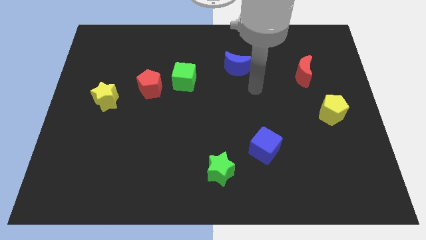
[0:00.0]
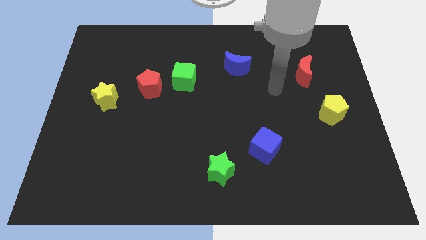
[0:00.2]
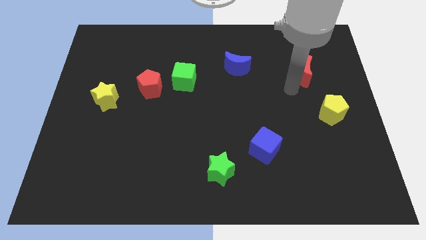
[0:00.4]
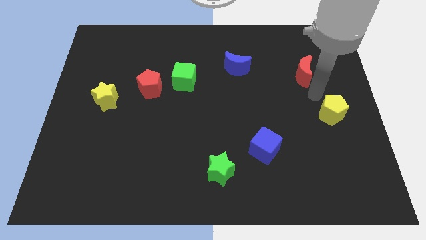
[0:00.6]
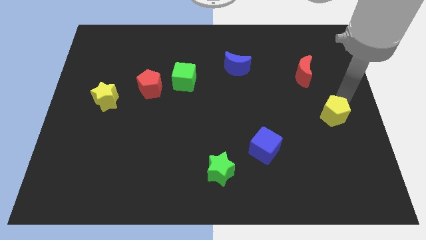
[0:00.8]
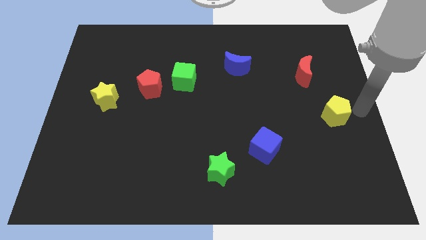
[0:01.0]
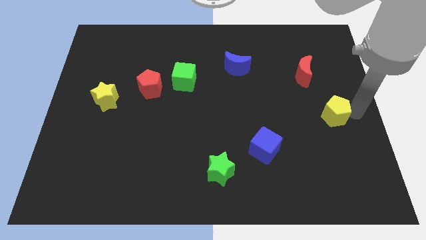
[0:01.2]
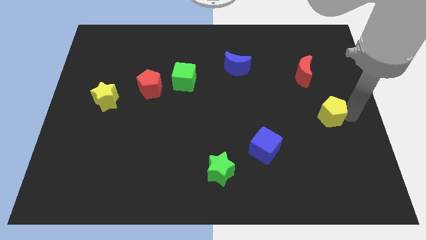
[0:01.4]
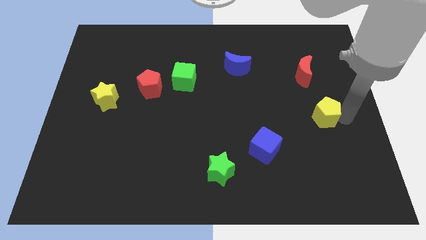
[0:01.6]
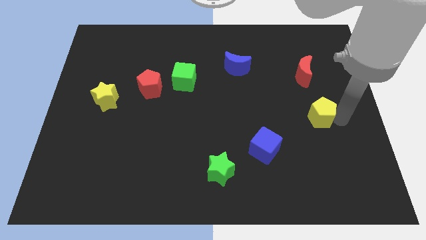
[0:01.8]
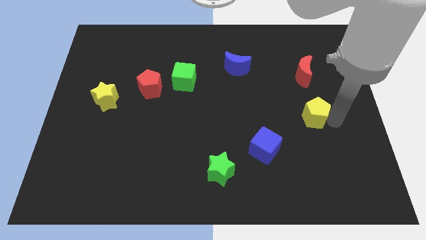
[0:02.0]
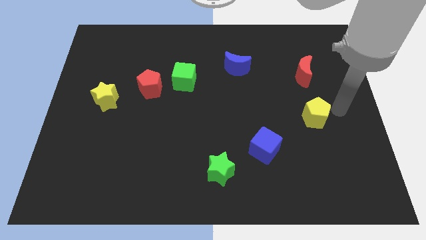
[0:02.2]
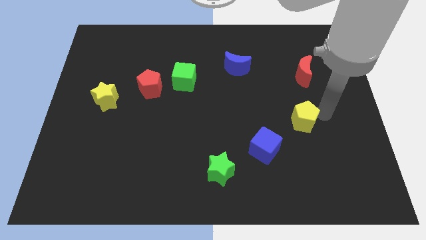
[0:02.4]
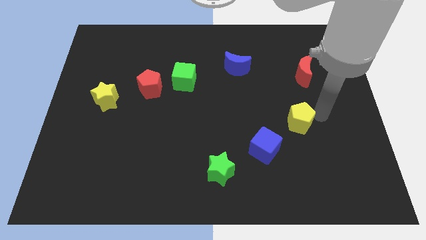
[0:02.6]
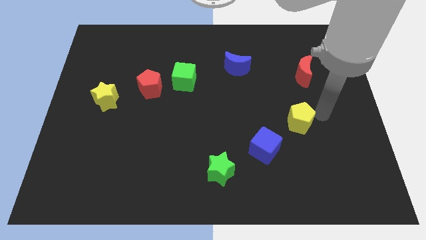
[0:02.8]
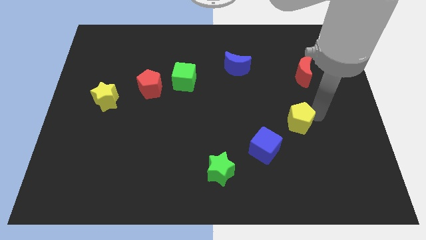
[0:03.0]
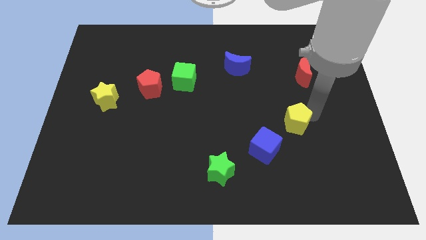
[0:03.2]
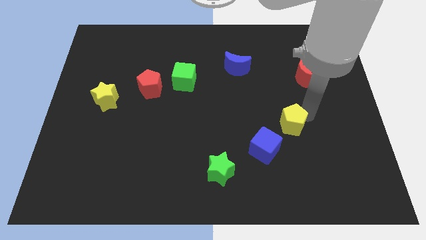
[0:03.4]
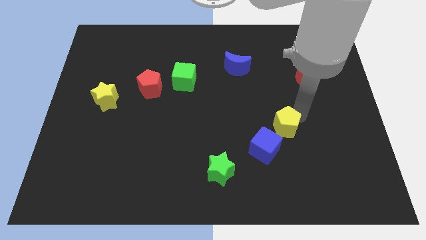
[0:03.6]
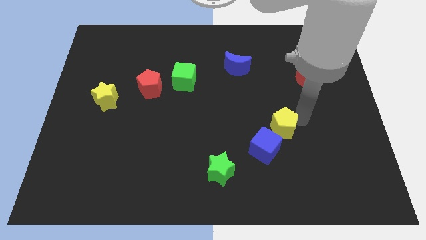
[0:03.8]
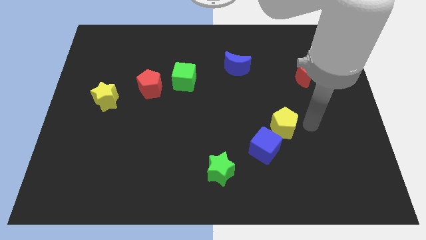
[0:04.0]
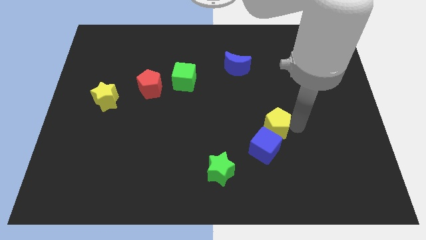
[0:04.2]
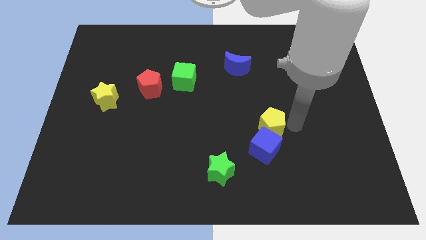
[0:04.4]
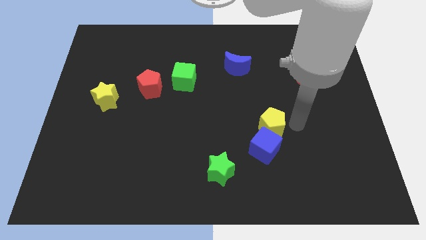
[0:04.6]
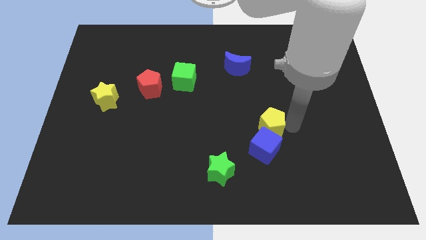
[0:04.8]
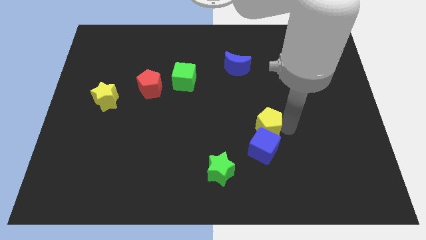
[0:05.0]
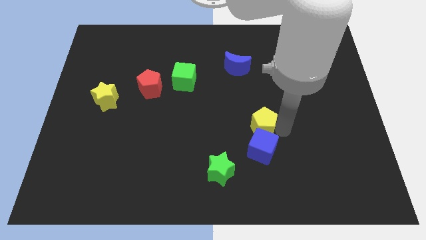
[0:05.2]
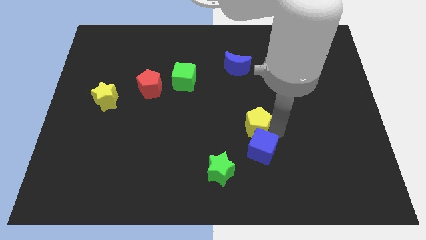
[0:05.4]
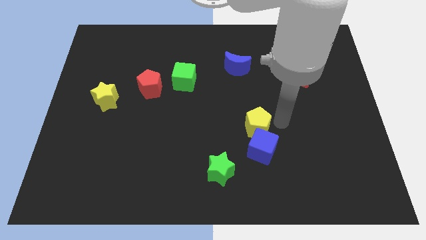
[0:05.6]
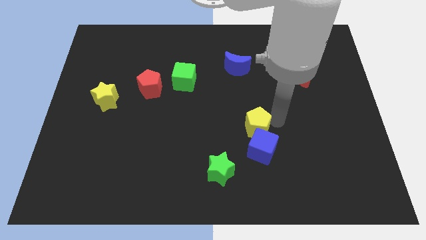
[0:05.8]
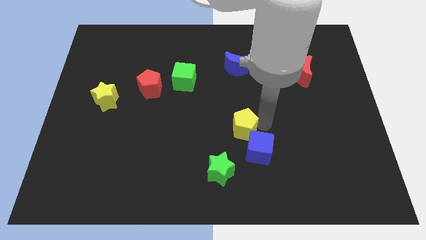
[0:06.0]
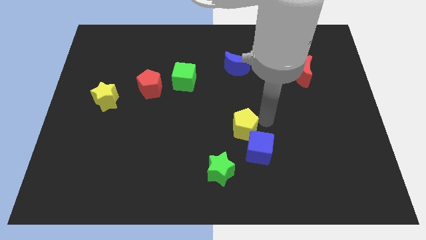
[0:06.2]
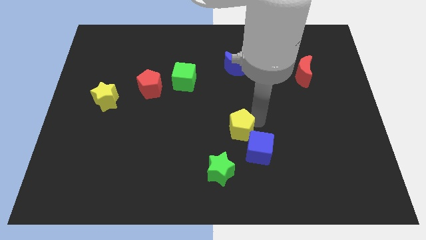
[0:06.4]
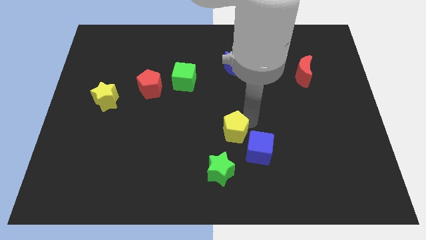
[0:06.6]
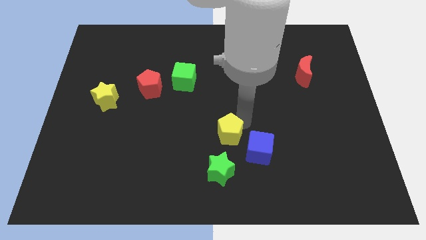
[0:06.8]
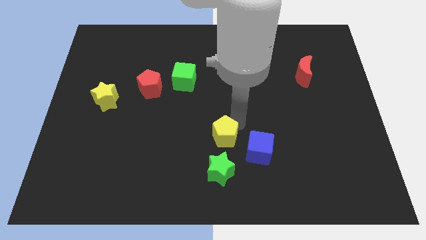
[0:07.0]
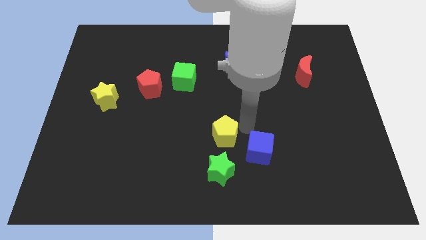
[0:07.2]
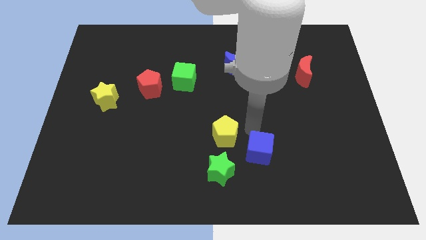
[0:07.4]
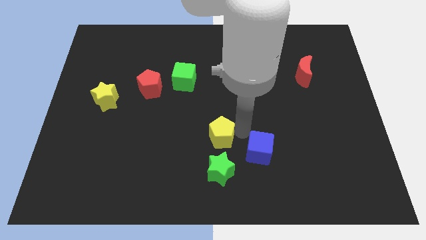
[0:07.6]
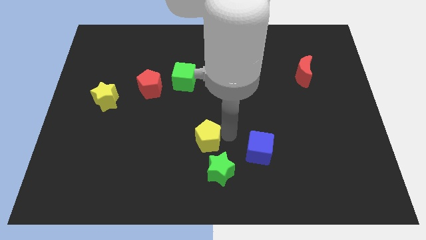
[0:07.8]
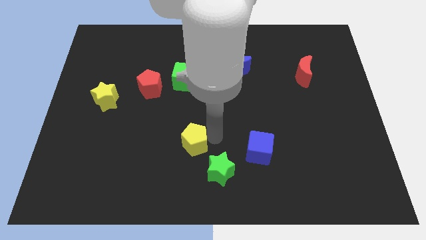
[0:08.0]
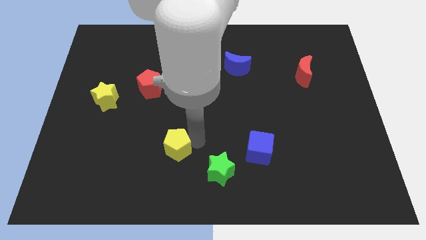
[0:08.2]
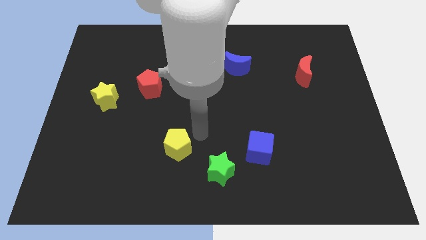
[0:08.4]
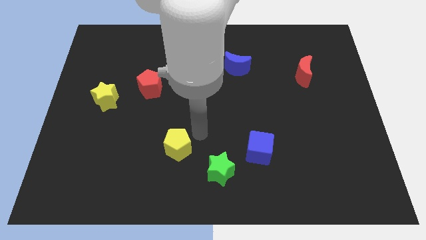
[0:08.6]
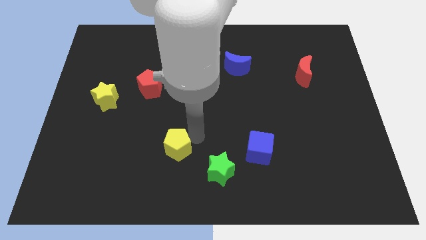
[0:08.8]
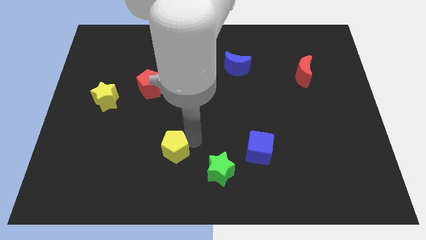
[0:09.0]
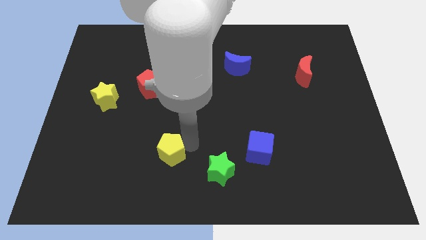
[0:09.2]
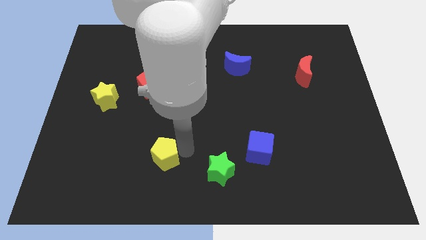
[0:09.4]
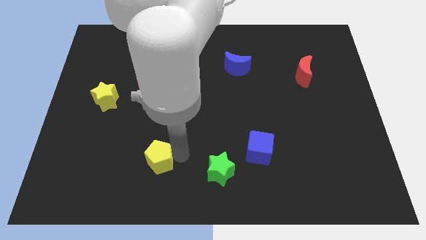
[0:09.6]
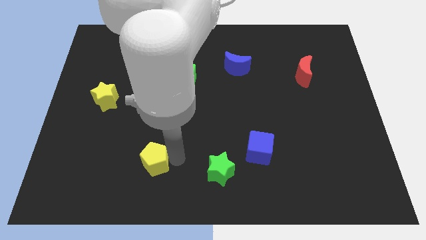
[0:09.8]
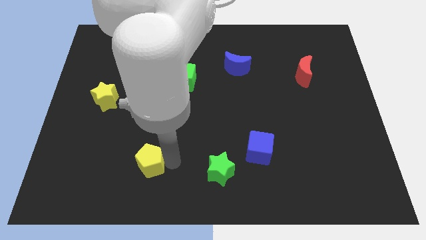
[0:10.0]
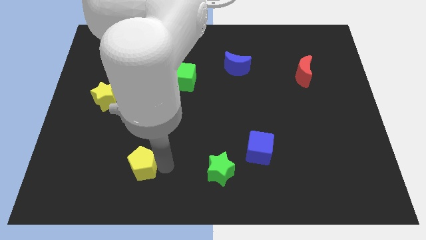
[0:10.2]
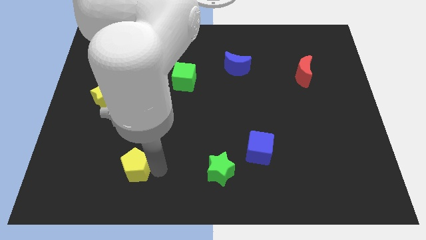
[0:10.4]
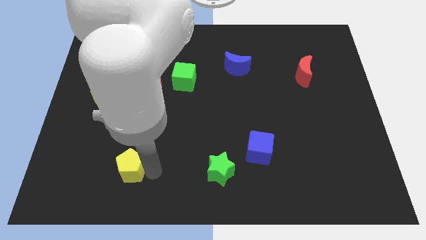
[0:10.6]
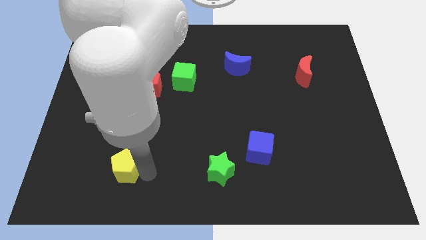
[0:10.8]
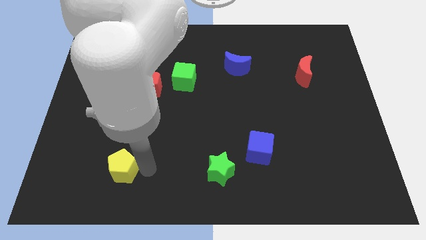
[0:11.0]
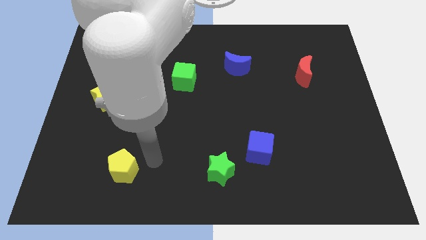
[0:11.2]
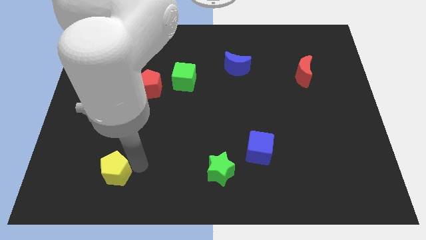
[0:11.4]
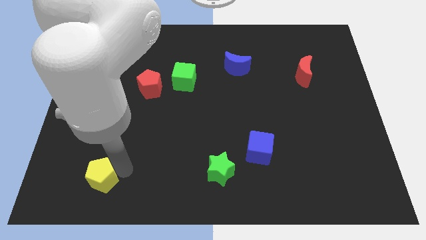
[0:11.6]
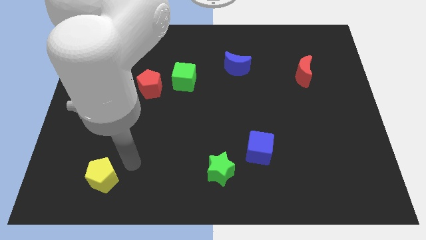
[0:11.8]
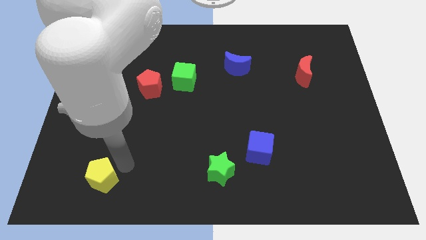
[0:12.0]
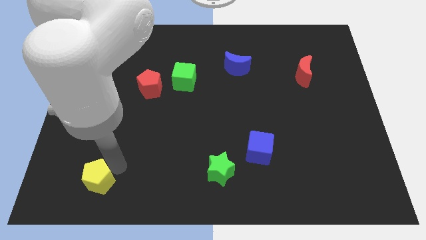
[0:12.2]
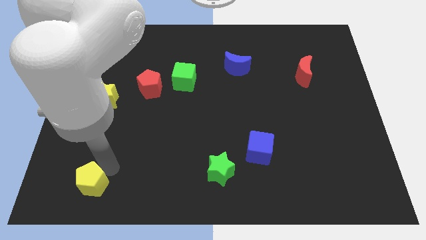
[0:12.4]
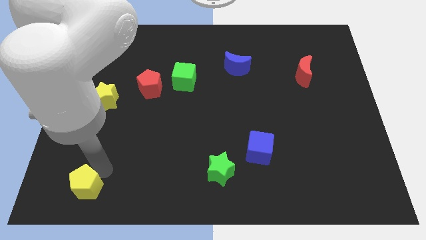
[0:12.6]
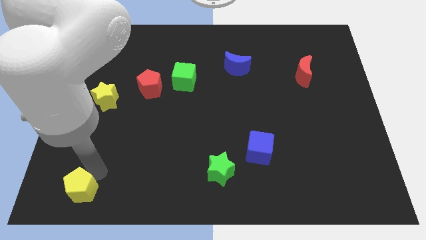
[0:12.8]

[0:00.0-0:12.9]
put the yellow pentagon to the bottom left of the board

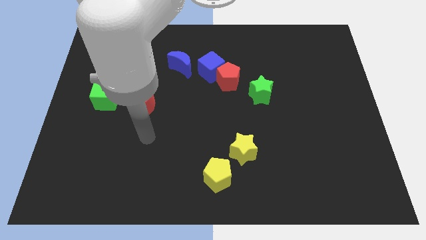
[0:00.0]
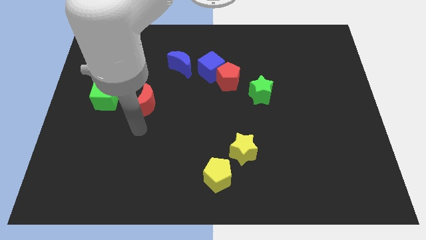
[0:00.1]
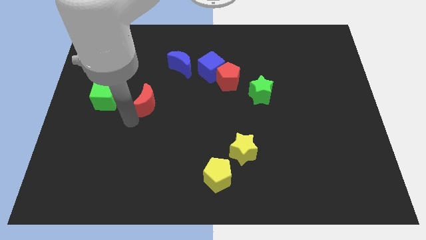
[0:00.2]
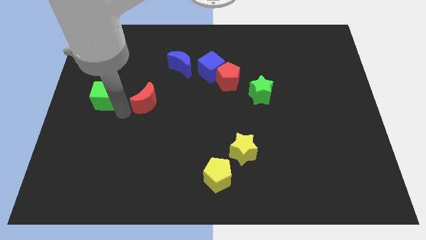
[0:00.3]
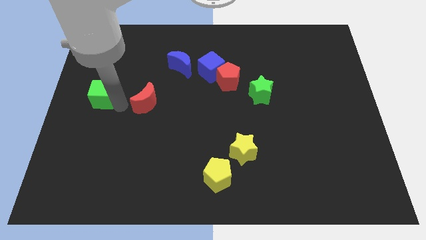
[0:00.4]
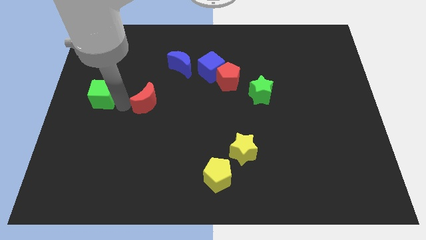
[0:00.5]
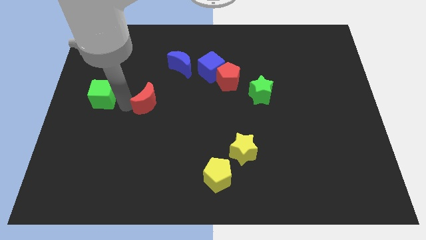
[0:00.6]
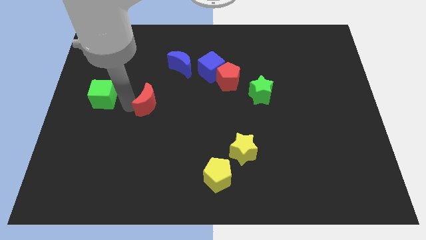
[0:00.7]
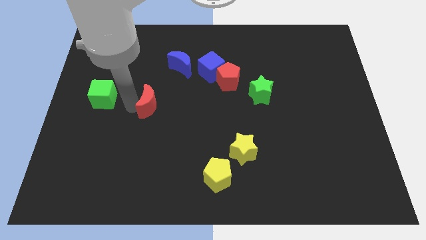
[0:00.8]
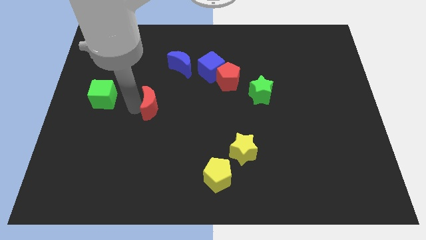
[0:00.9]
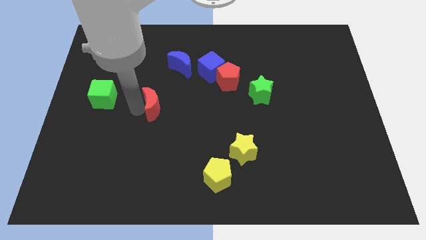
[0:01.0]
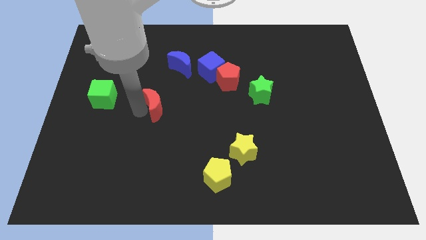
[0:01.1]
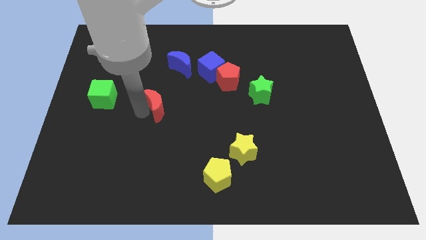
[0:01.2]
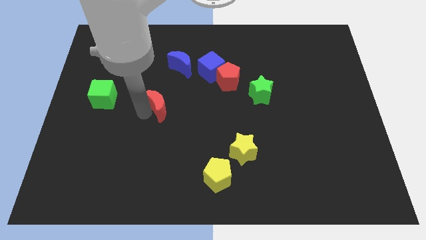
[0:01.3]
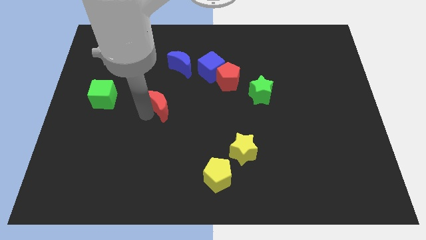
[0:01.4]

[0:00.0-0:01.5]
slide the red moon to the center of the board
